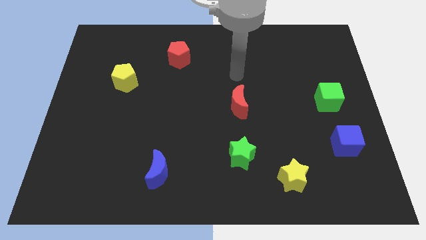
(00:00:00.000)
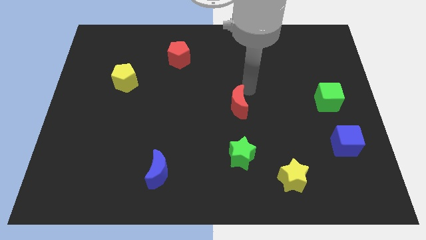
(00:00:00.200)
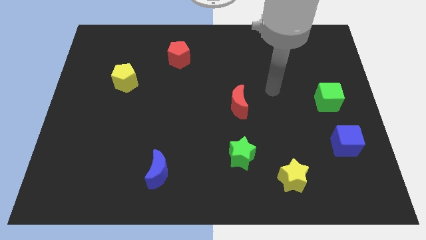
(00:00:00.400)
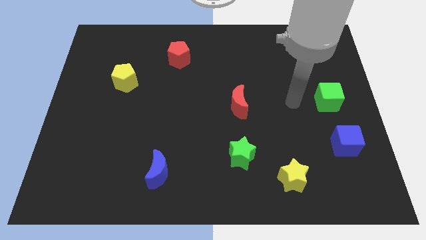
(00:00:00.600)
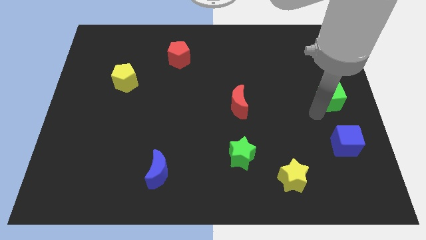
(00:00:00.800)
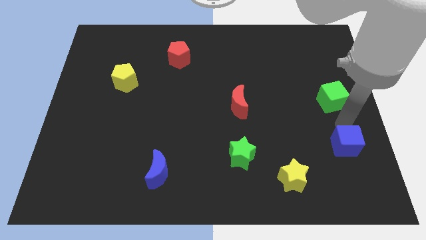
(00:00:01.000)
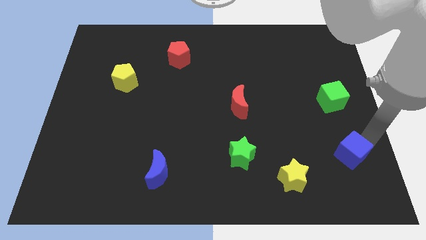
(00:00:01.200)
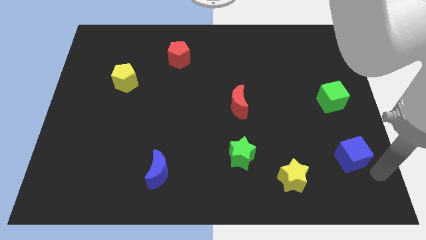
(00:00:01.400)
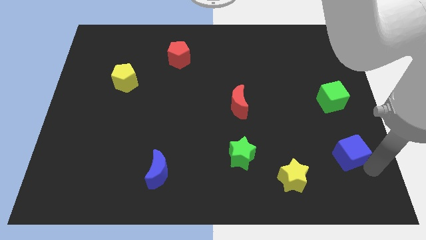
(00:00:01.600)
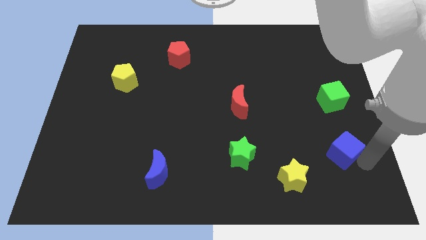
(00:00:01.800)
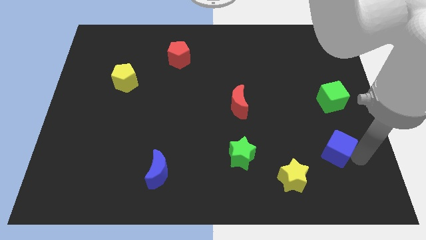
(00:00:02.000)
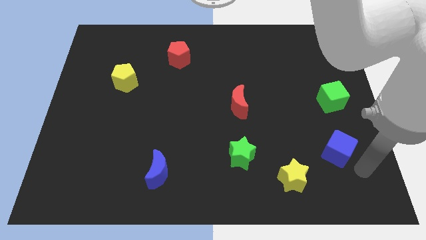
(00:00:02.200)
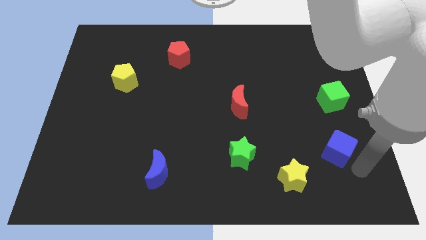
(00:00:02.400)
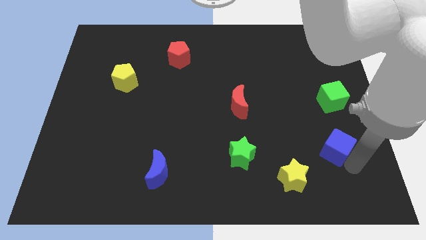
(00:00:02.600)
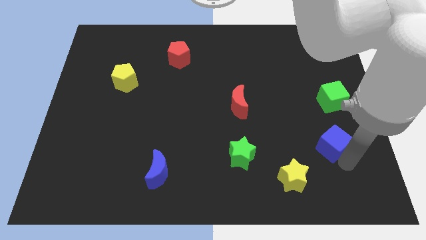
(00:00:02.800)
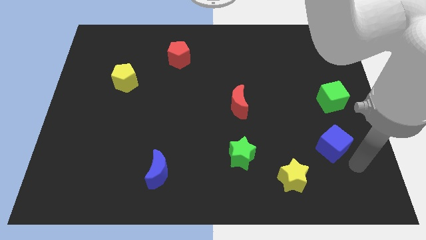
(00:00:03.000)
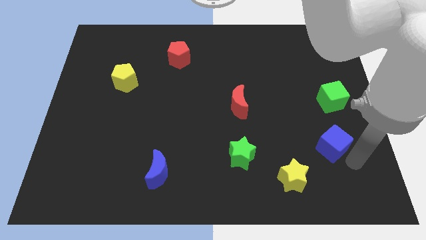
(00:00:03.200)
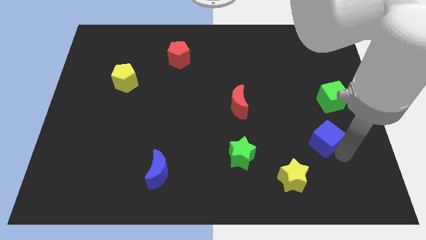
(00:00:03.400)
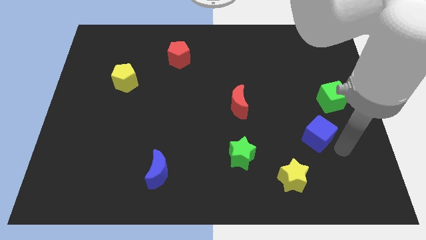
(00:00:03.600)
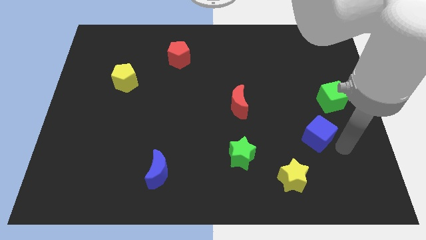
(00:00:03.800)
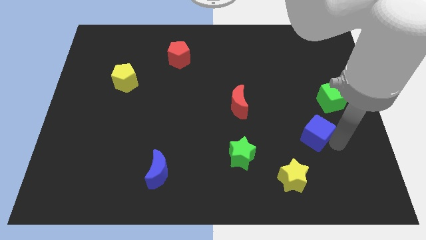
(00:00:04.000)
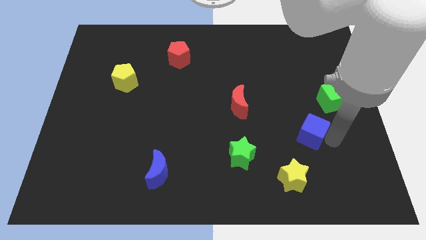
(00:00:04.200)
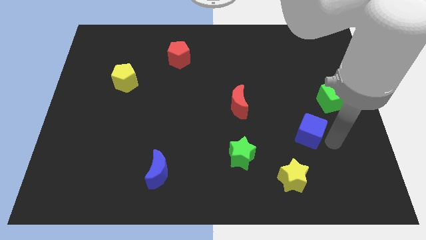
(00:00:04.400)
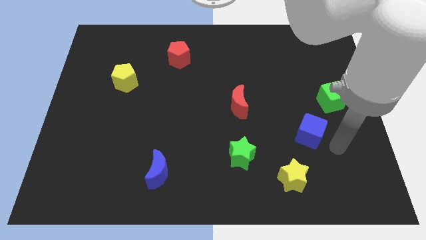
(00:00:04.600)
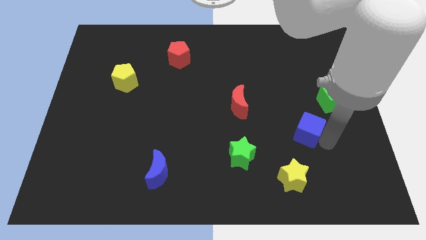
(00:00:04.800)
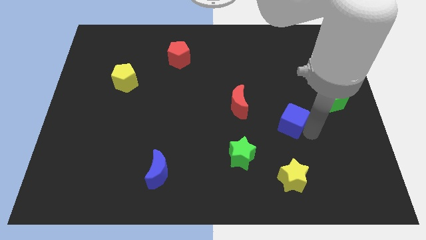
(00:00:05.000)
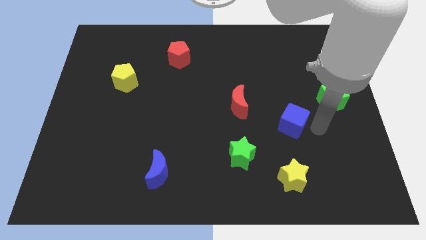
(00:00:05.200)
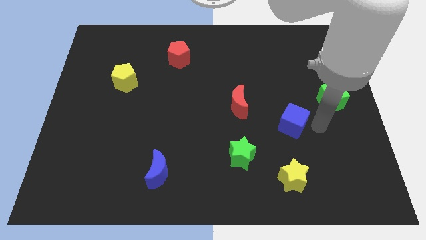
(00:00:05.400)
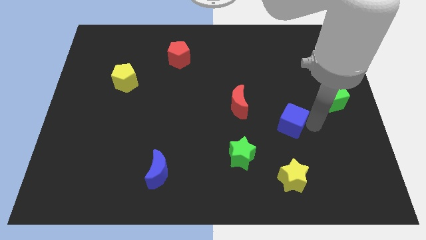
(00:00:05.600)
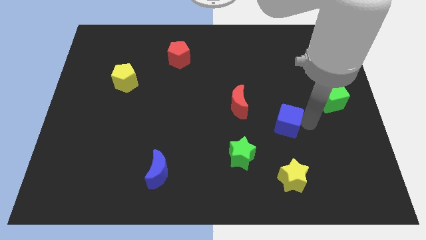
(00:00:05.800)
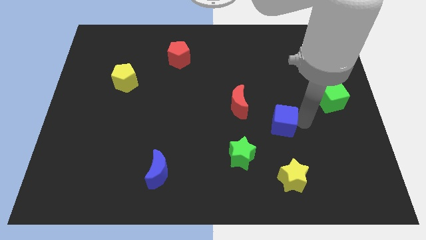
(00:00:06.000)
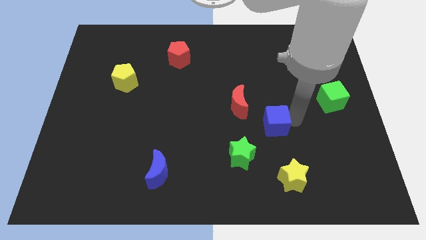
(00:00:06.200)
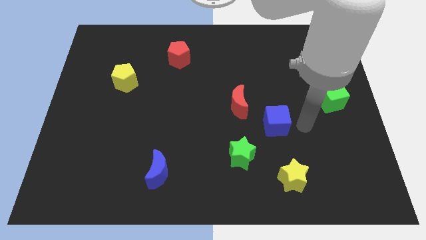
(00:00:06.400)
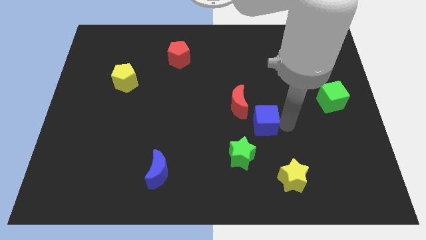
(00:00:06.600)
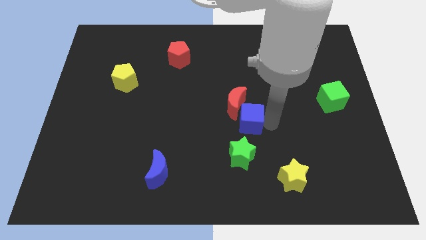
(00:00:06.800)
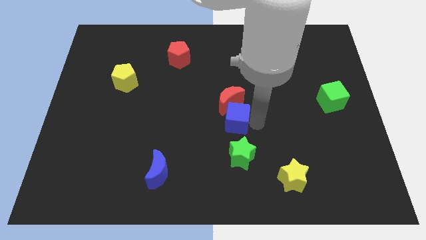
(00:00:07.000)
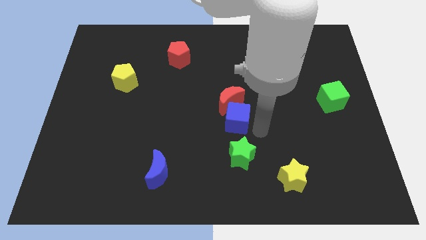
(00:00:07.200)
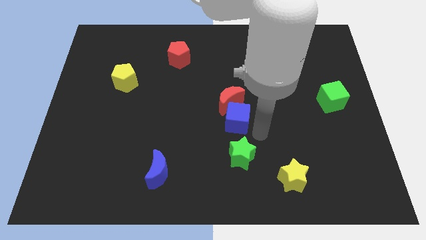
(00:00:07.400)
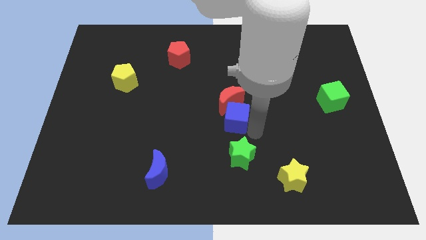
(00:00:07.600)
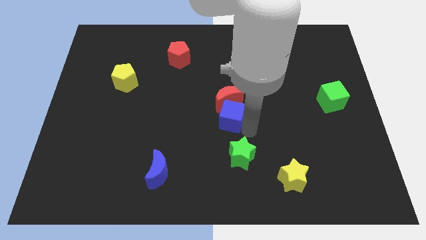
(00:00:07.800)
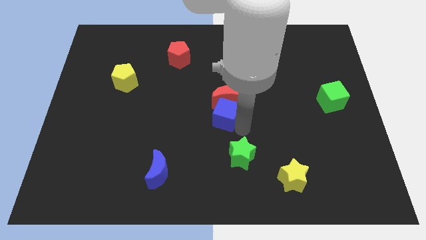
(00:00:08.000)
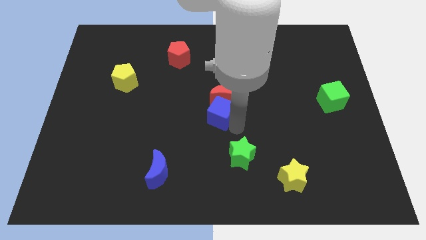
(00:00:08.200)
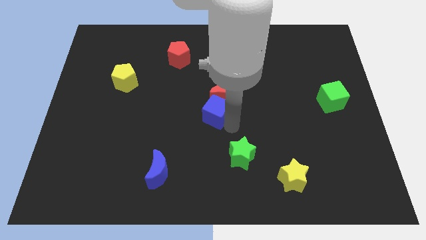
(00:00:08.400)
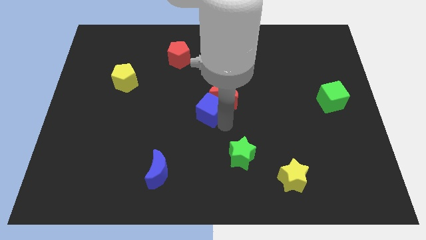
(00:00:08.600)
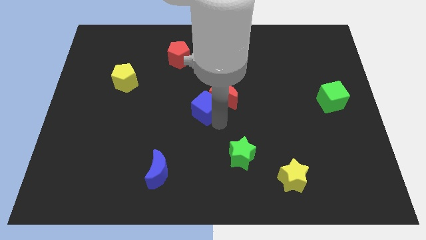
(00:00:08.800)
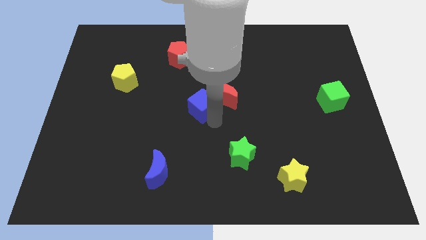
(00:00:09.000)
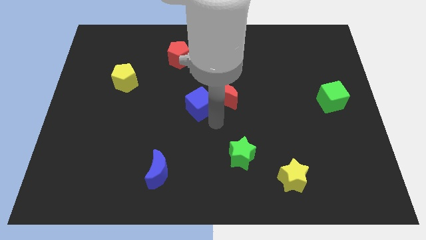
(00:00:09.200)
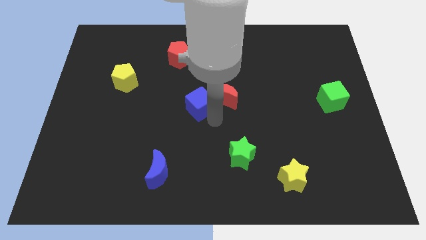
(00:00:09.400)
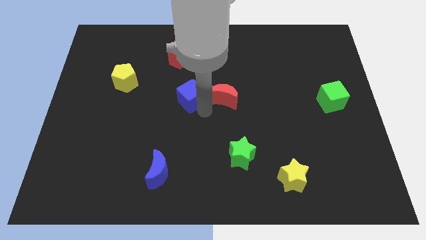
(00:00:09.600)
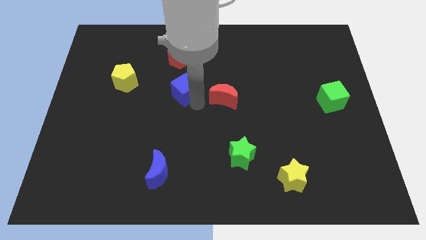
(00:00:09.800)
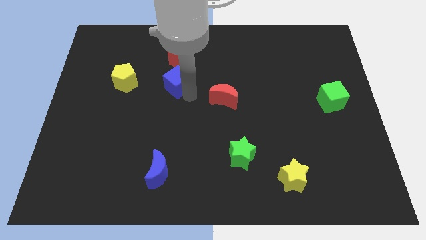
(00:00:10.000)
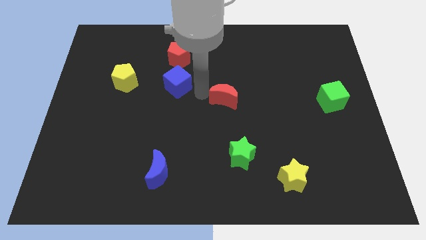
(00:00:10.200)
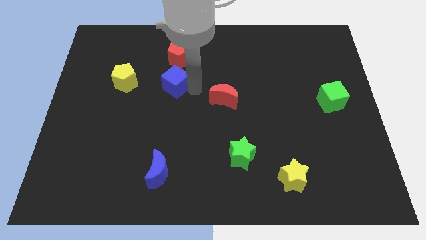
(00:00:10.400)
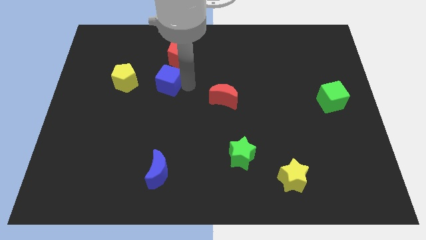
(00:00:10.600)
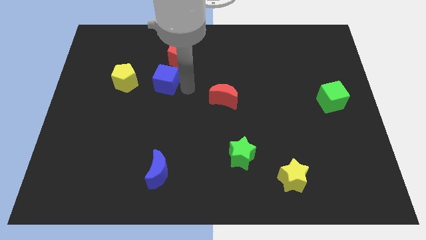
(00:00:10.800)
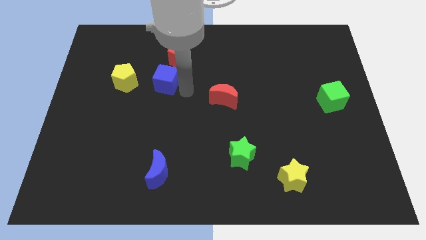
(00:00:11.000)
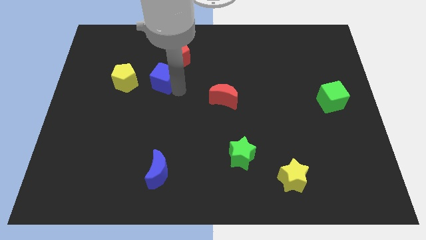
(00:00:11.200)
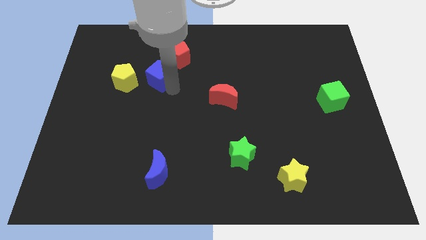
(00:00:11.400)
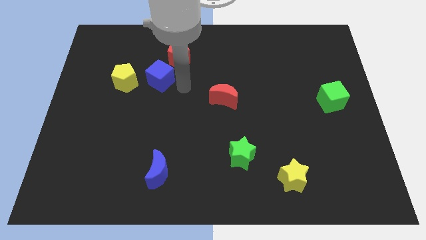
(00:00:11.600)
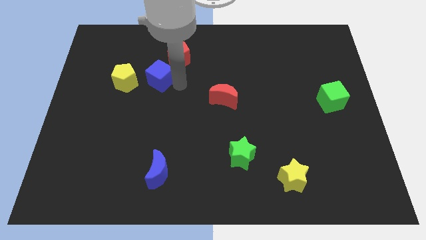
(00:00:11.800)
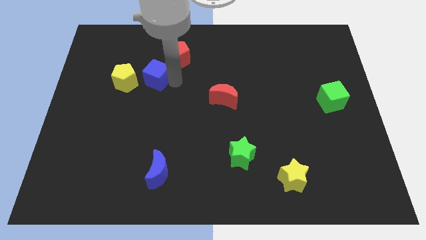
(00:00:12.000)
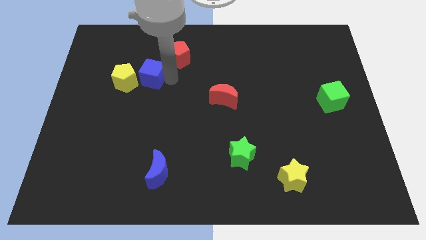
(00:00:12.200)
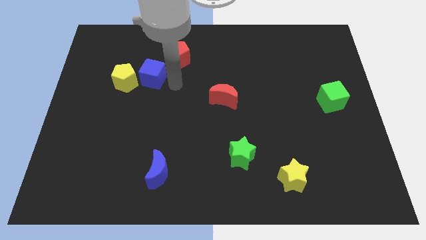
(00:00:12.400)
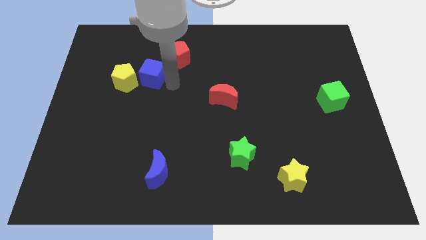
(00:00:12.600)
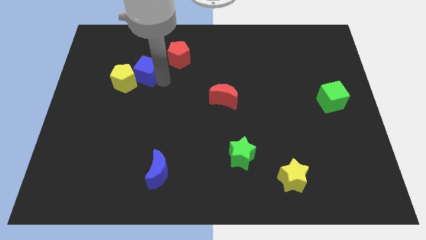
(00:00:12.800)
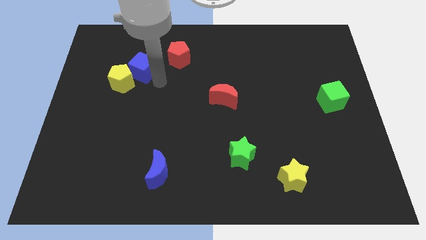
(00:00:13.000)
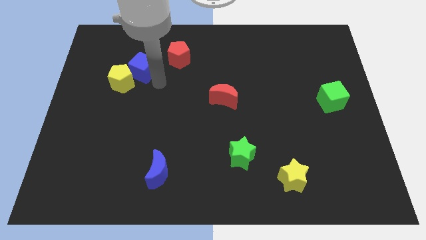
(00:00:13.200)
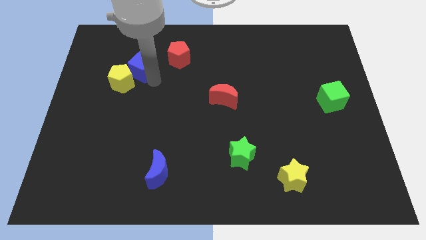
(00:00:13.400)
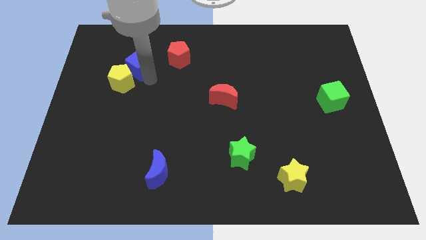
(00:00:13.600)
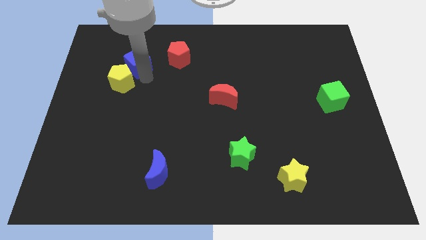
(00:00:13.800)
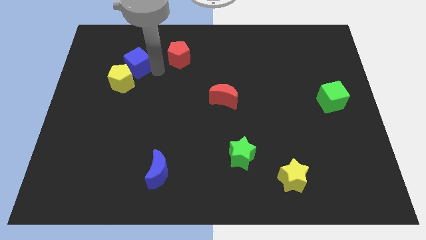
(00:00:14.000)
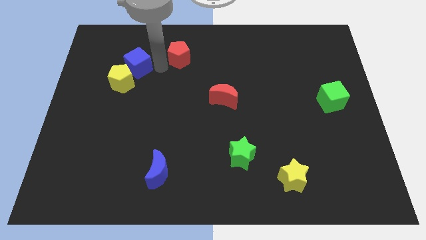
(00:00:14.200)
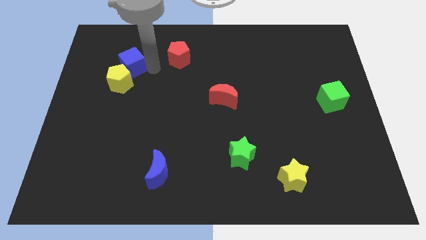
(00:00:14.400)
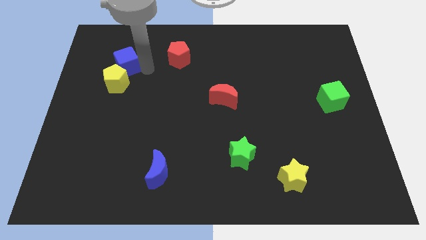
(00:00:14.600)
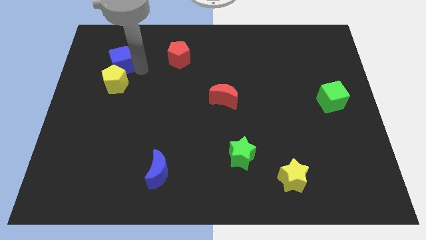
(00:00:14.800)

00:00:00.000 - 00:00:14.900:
push the blue cube to the top left of the yellow pentagon
